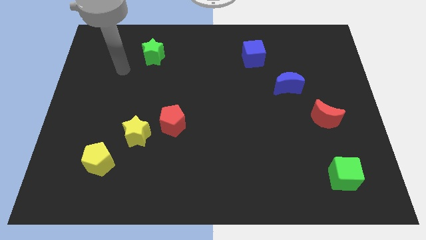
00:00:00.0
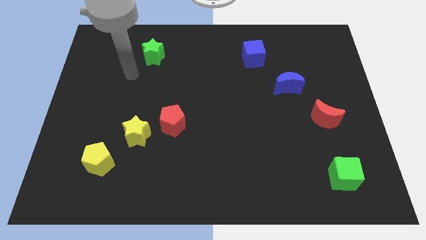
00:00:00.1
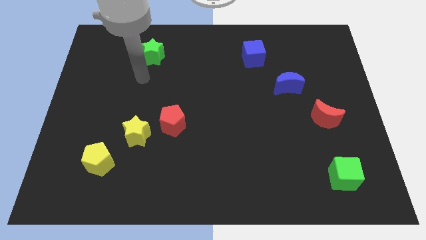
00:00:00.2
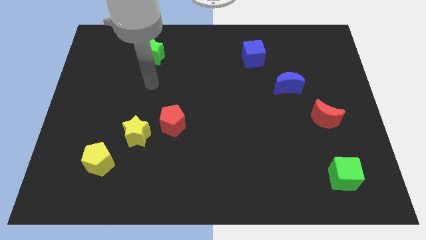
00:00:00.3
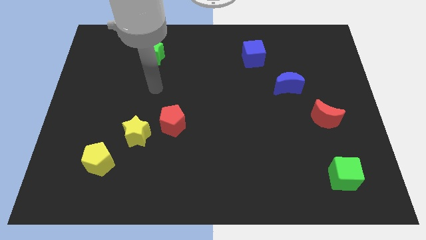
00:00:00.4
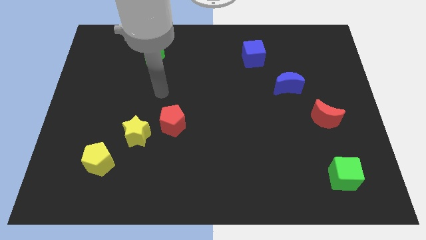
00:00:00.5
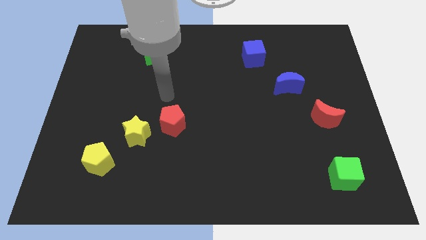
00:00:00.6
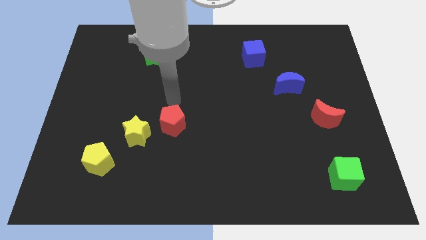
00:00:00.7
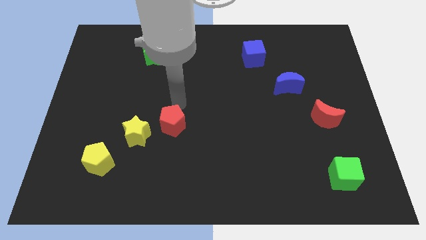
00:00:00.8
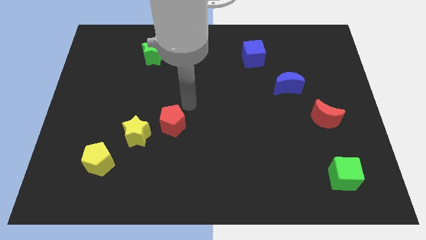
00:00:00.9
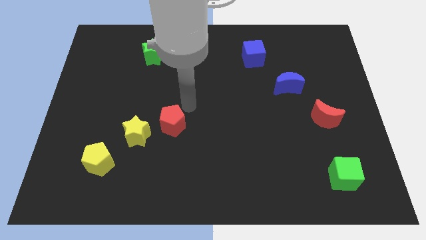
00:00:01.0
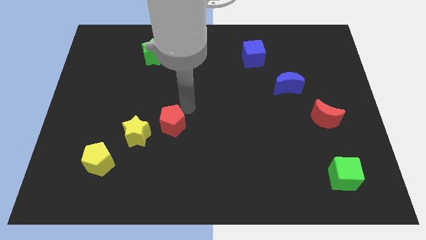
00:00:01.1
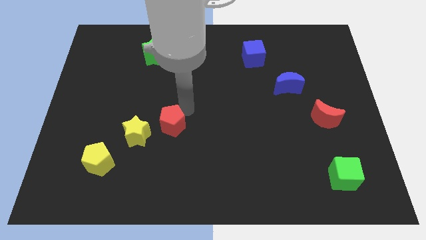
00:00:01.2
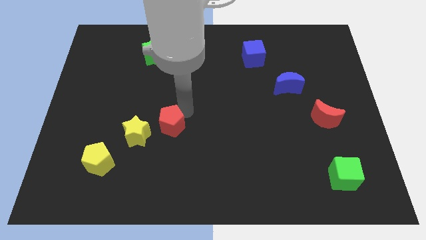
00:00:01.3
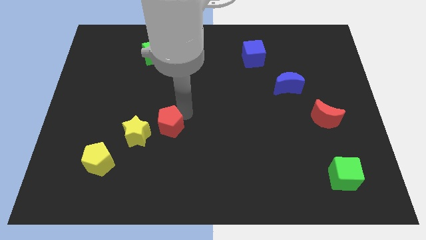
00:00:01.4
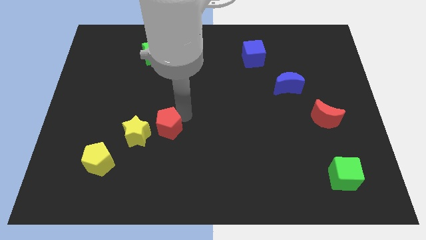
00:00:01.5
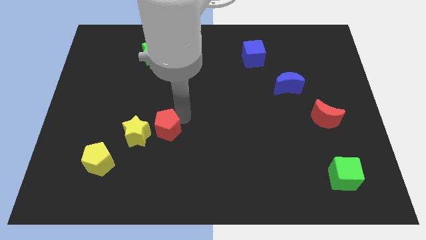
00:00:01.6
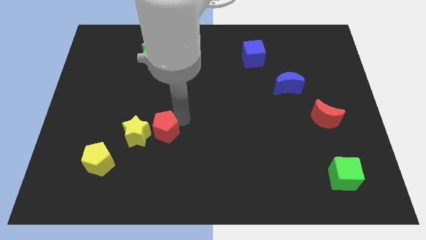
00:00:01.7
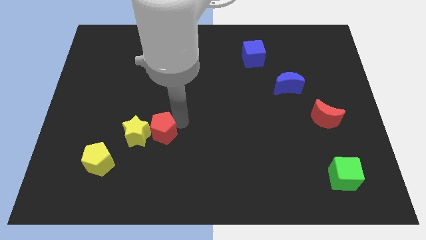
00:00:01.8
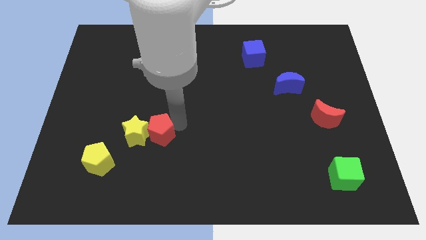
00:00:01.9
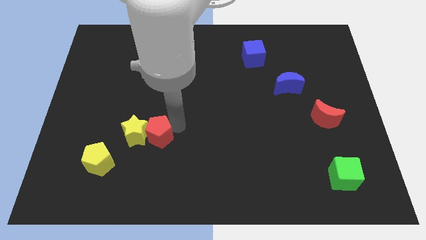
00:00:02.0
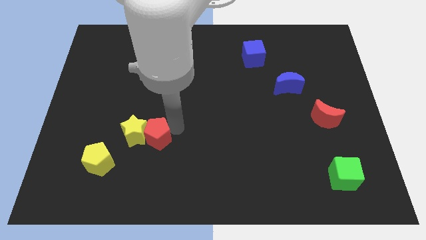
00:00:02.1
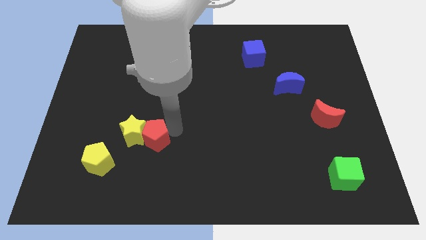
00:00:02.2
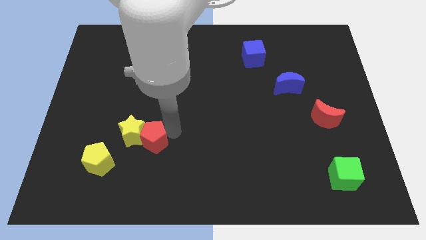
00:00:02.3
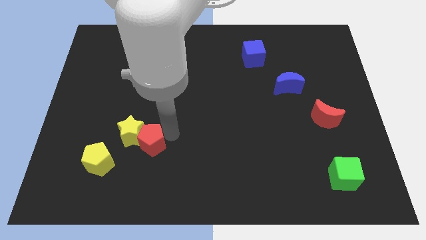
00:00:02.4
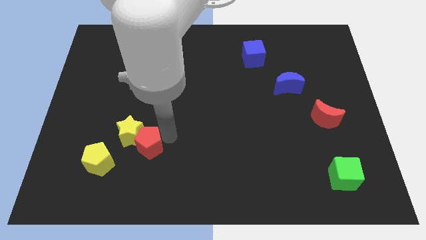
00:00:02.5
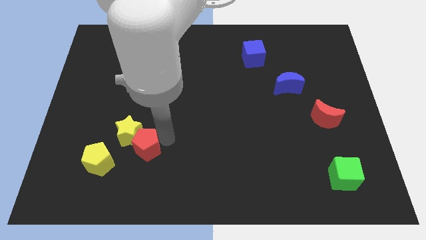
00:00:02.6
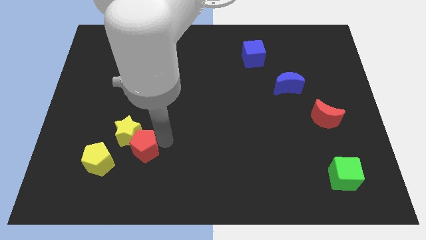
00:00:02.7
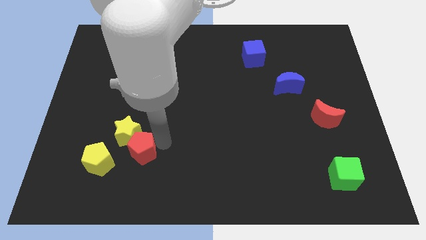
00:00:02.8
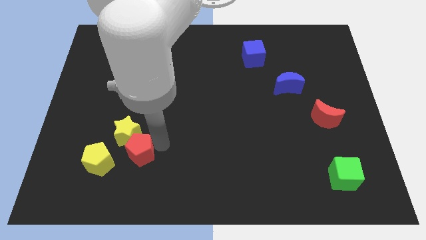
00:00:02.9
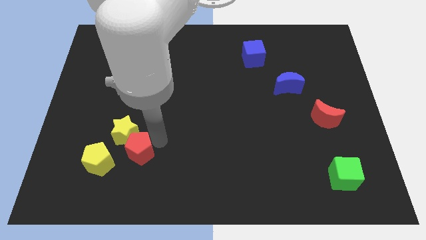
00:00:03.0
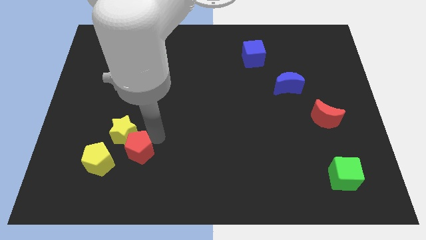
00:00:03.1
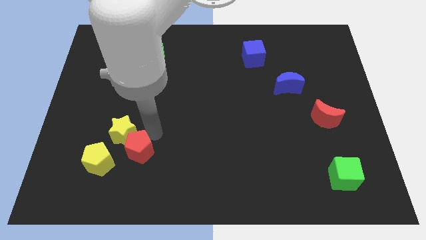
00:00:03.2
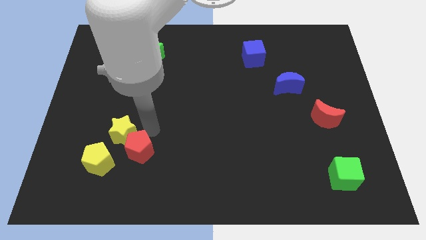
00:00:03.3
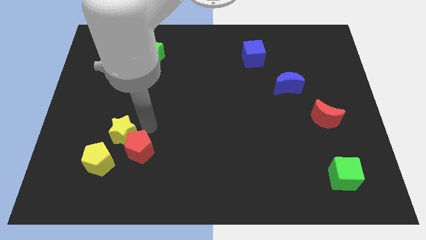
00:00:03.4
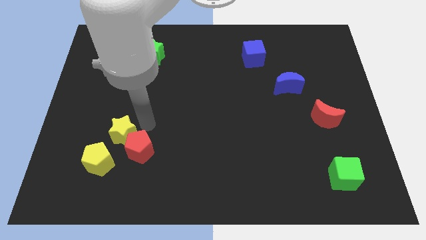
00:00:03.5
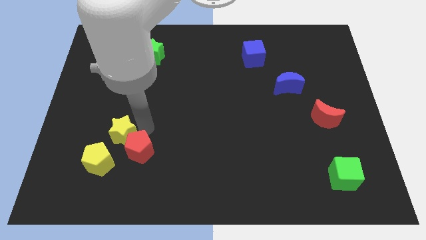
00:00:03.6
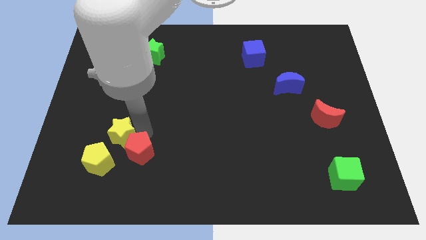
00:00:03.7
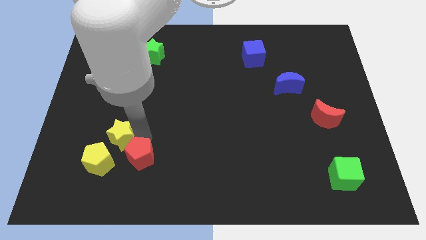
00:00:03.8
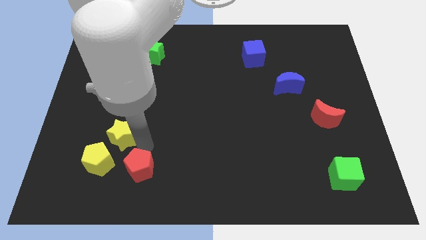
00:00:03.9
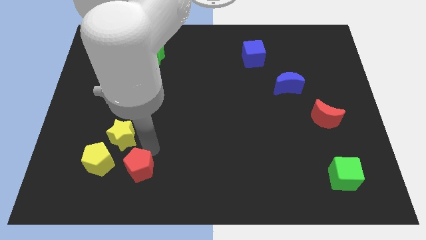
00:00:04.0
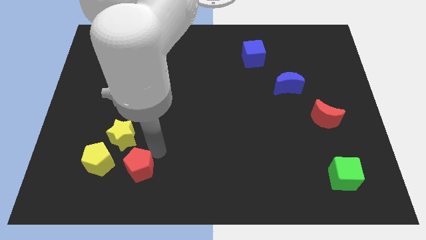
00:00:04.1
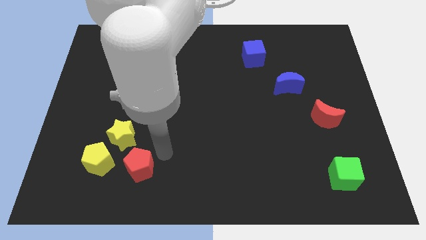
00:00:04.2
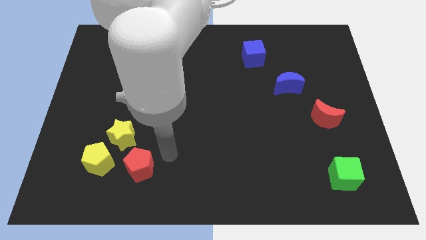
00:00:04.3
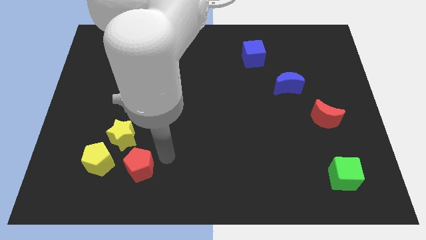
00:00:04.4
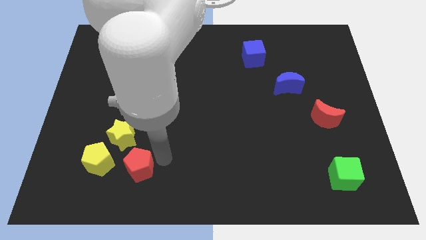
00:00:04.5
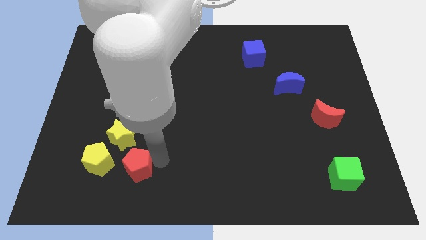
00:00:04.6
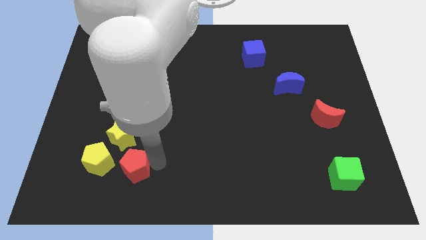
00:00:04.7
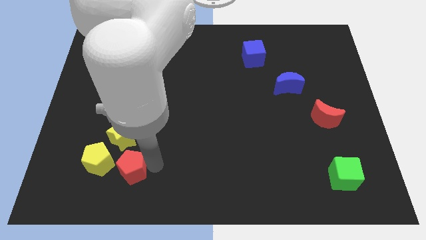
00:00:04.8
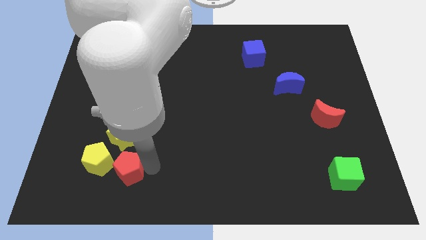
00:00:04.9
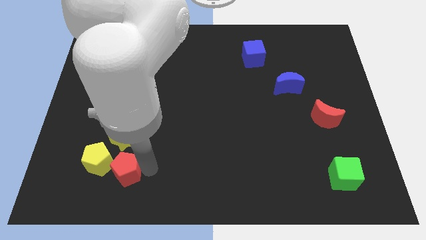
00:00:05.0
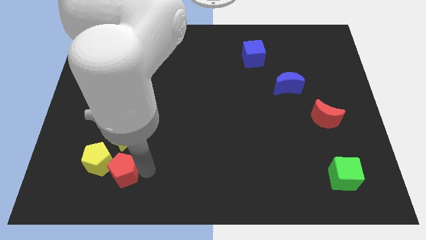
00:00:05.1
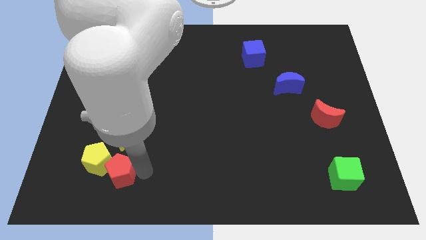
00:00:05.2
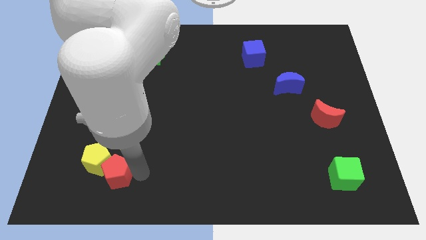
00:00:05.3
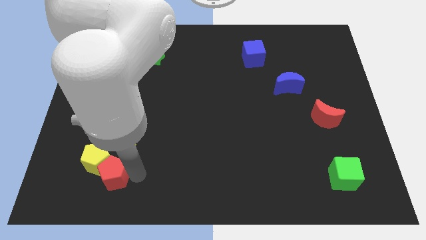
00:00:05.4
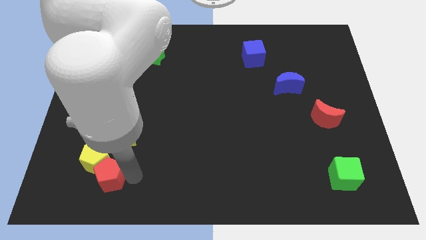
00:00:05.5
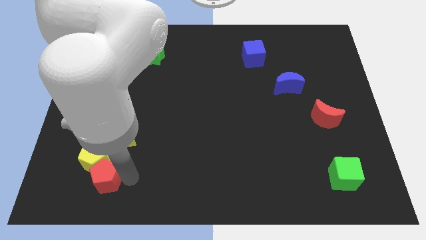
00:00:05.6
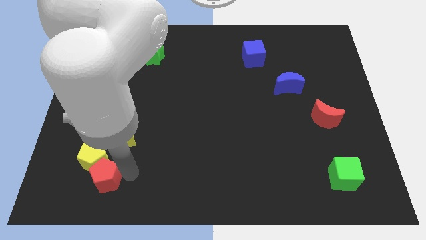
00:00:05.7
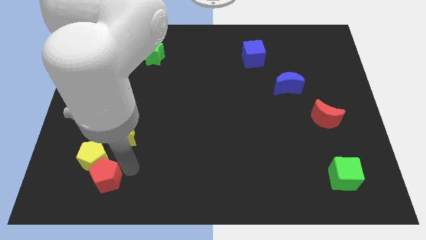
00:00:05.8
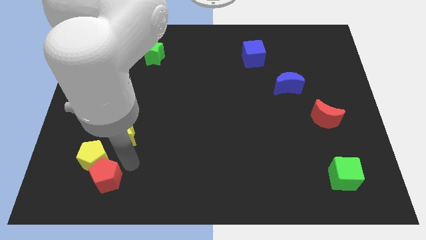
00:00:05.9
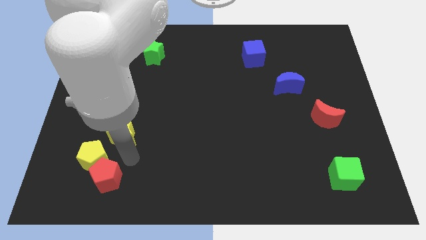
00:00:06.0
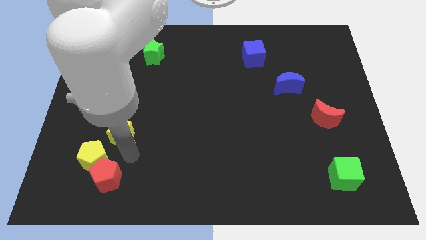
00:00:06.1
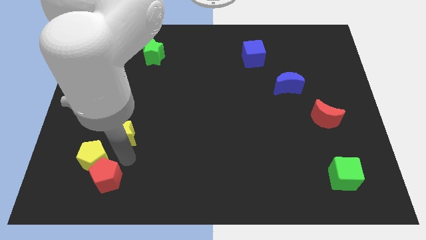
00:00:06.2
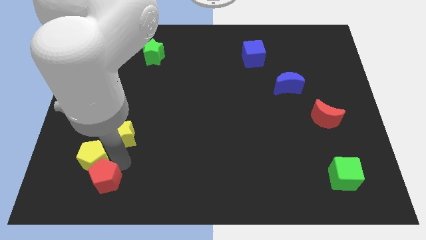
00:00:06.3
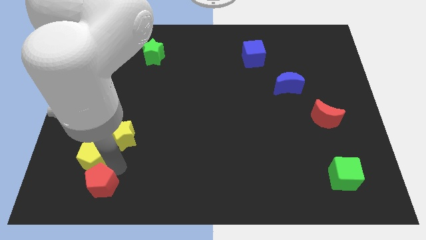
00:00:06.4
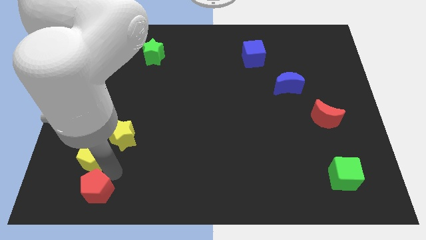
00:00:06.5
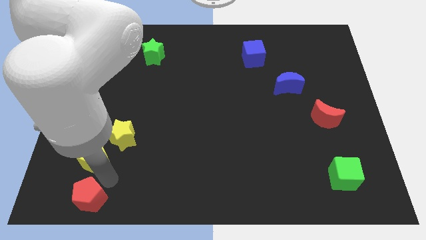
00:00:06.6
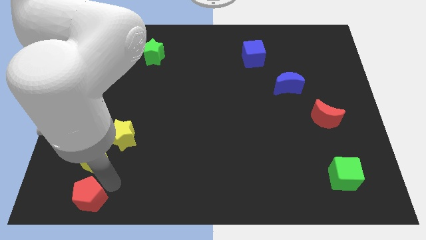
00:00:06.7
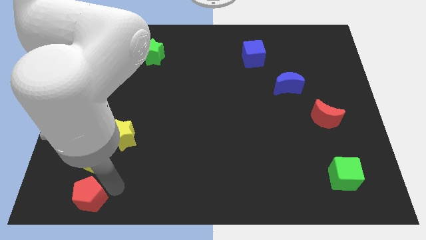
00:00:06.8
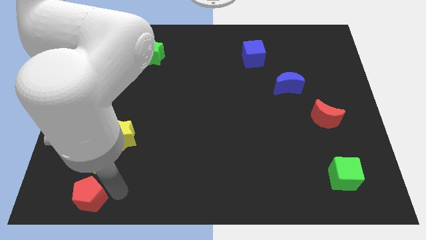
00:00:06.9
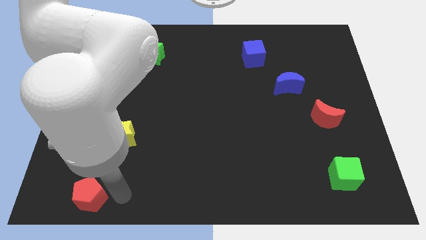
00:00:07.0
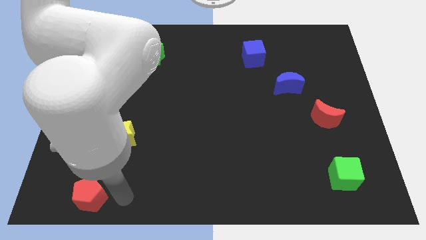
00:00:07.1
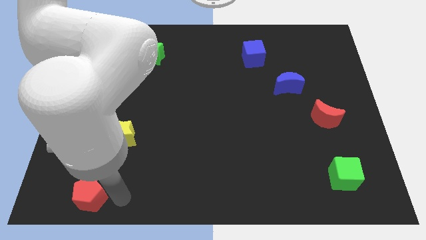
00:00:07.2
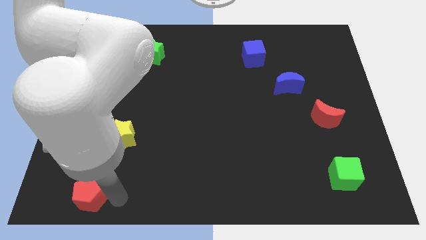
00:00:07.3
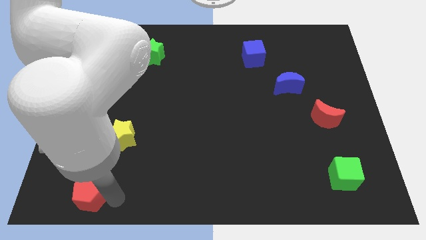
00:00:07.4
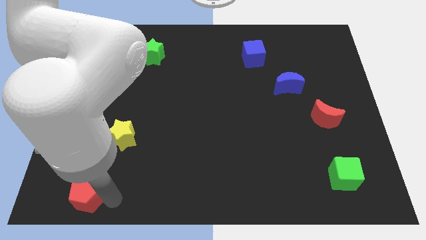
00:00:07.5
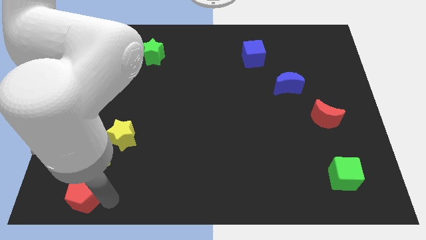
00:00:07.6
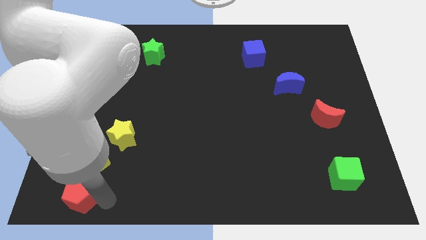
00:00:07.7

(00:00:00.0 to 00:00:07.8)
slide the red pentagon to the lower left corner
